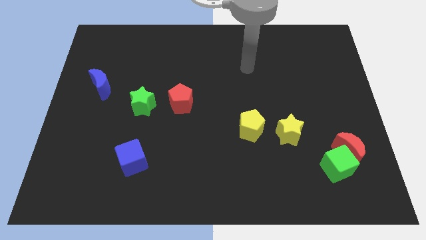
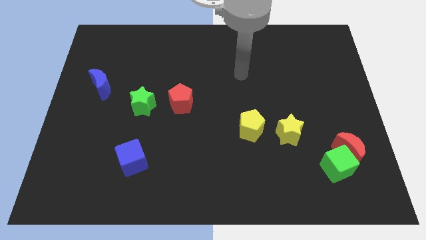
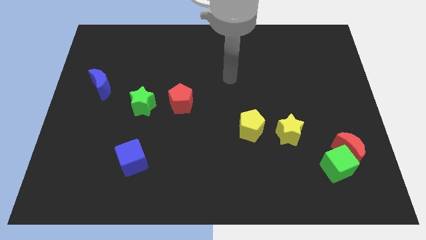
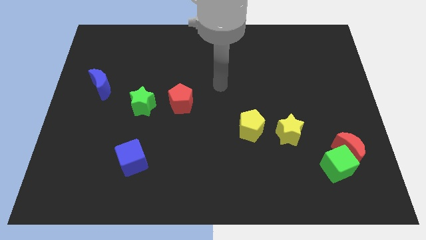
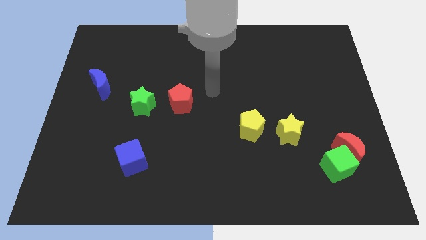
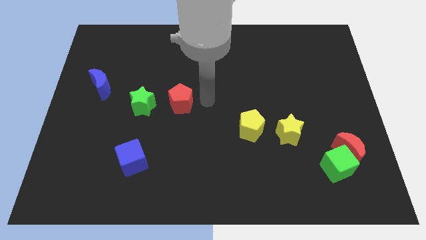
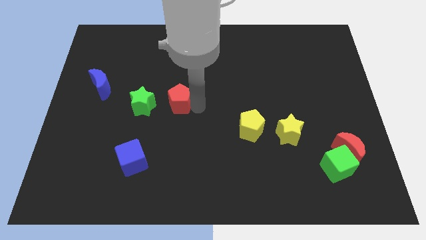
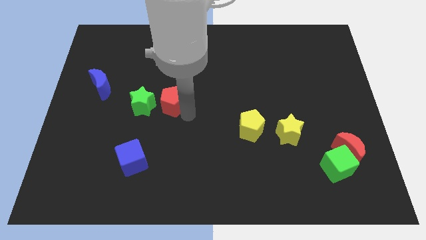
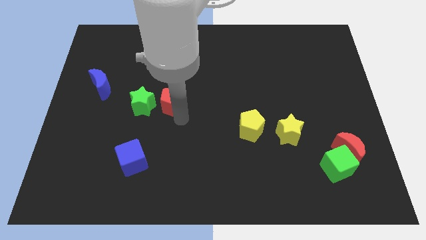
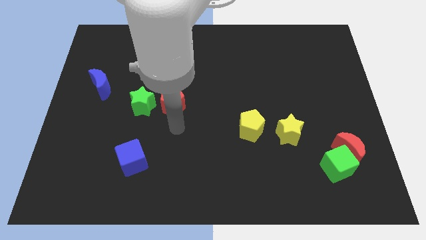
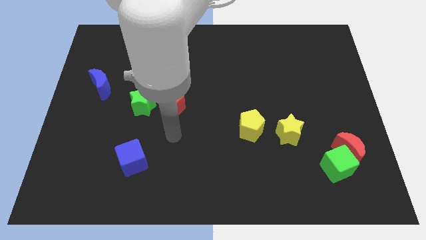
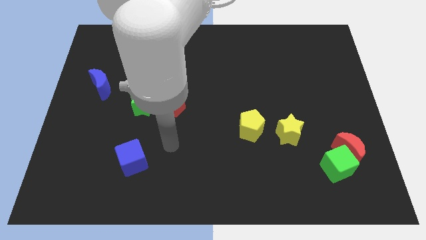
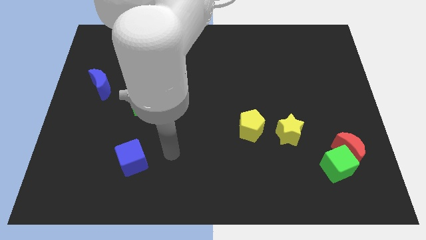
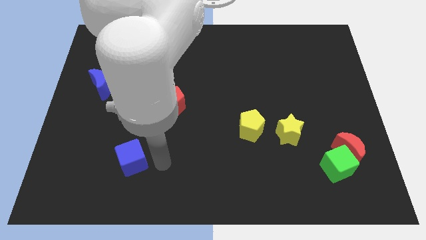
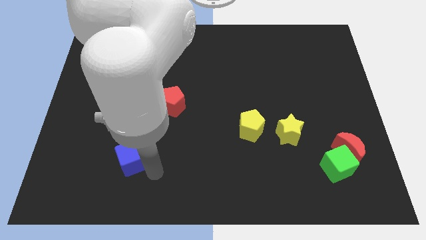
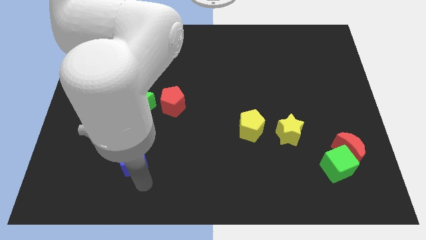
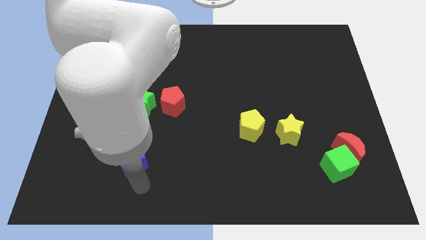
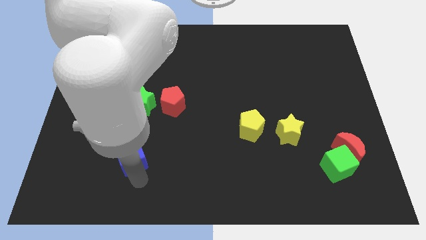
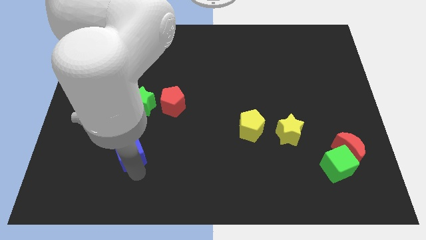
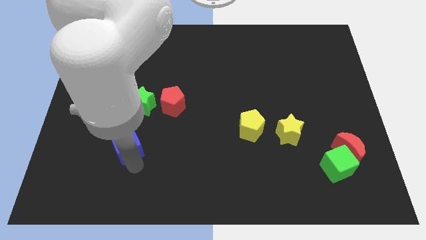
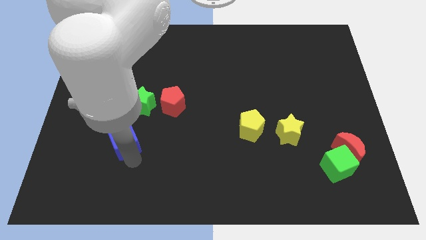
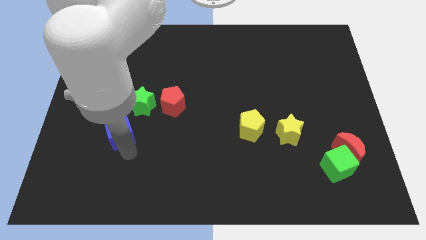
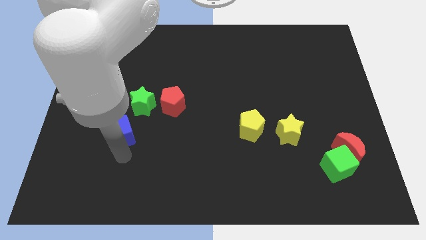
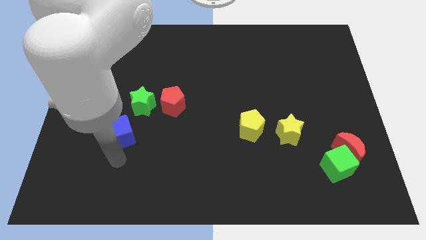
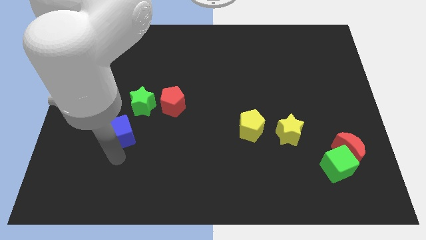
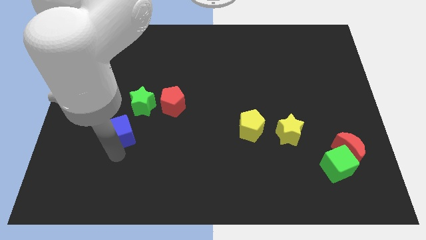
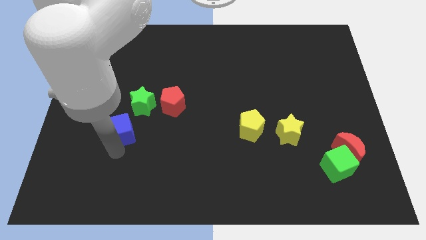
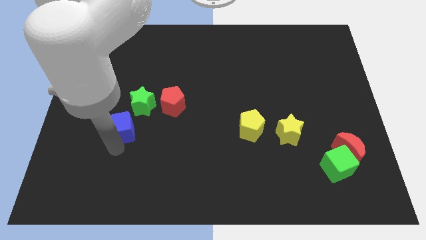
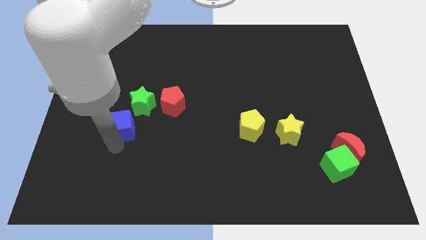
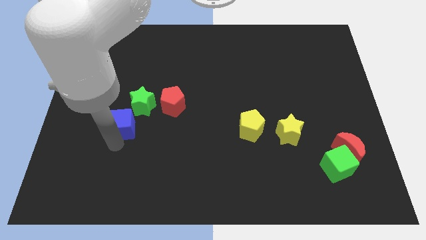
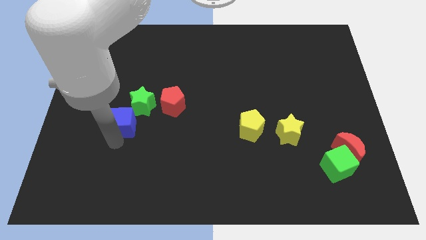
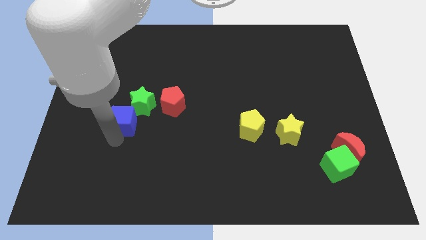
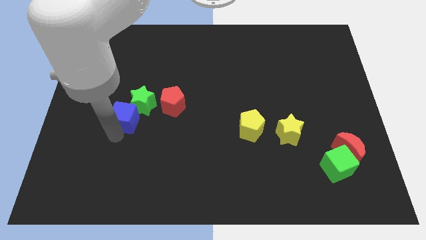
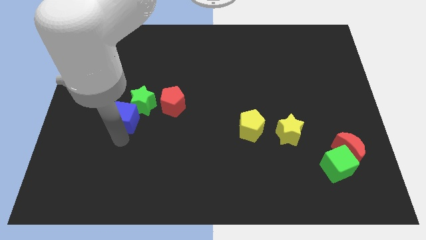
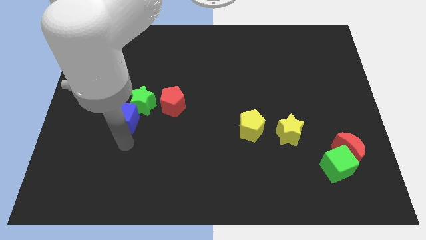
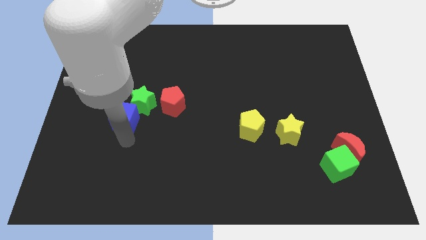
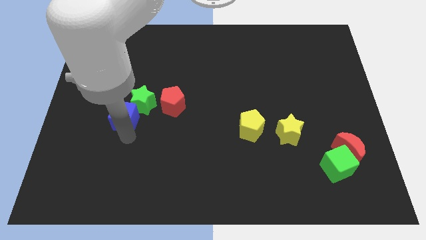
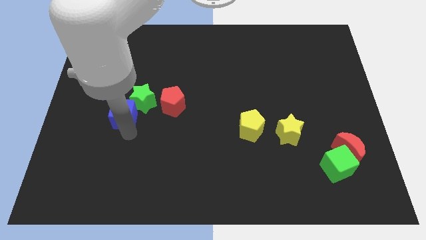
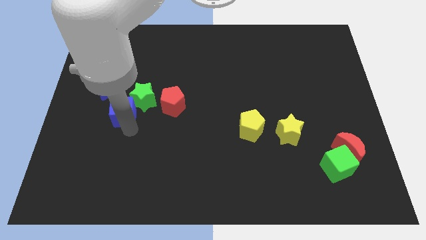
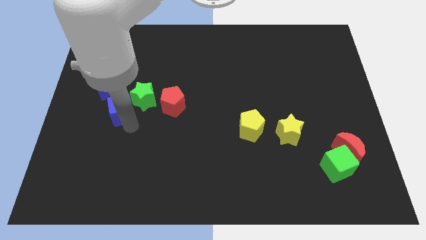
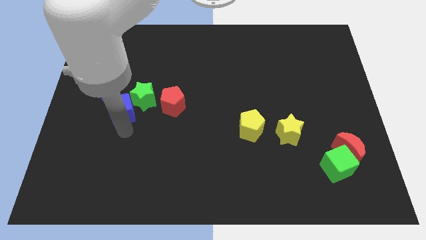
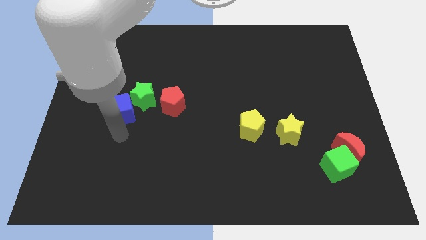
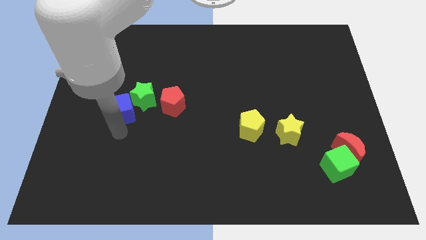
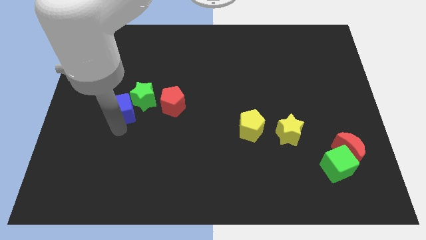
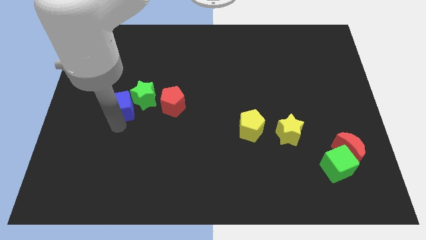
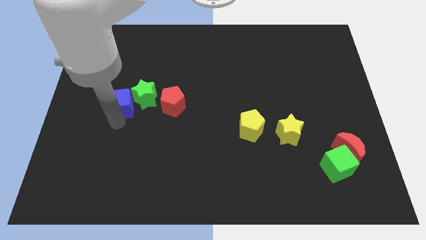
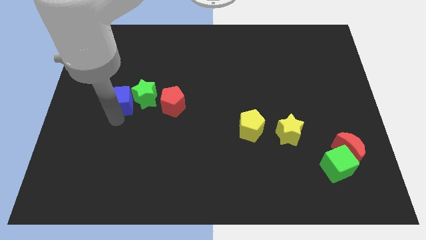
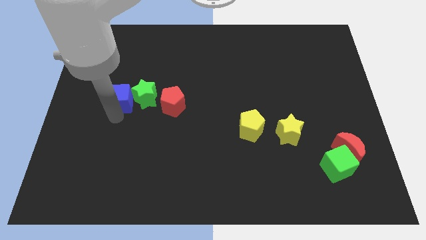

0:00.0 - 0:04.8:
move the blue cube to the top left of the green star

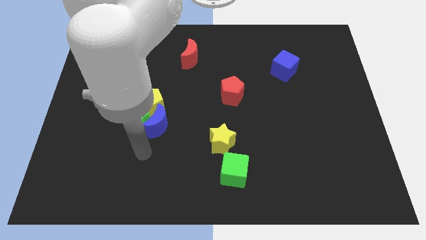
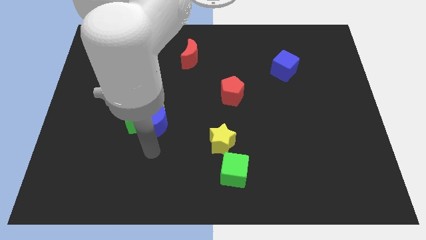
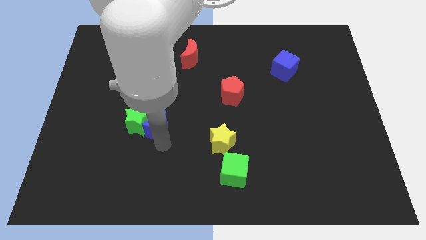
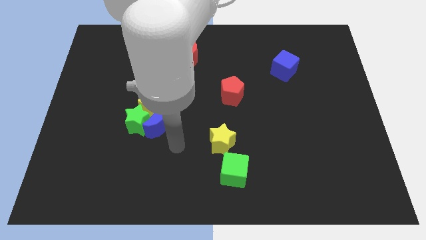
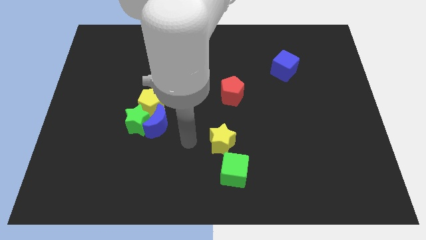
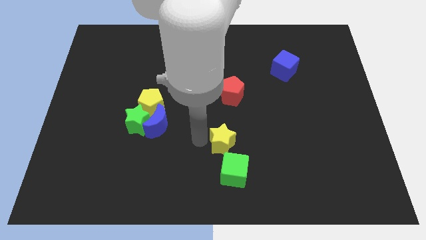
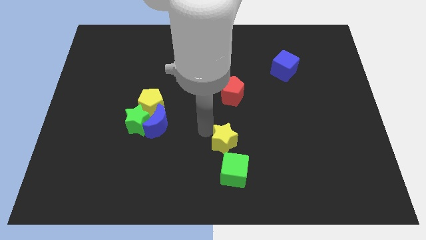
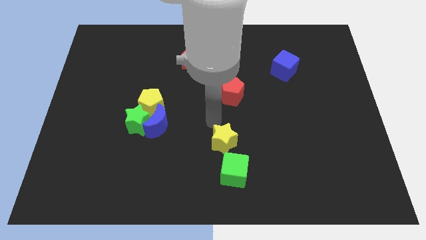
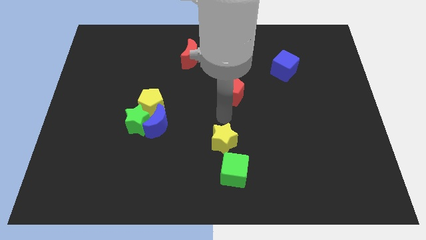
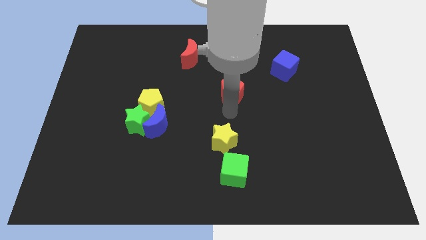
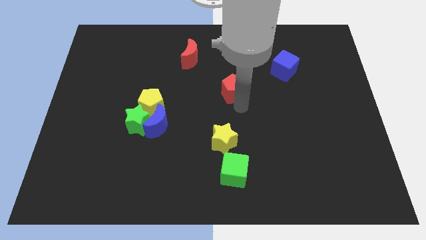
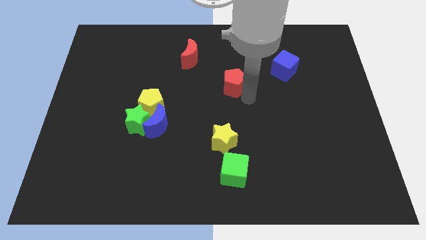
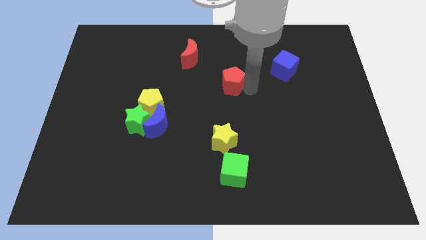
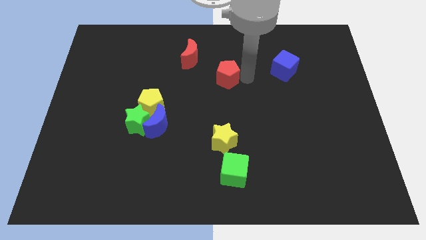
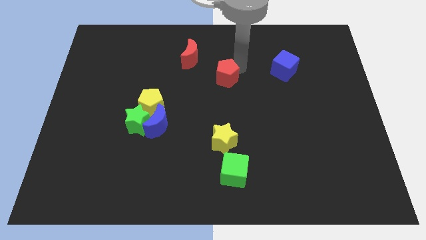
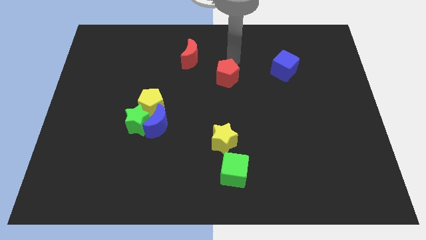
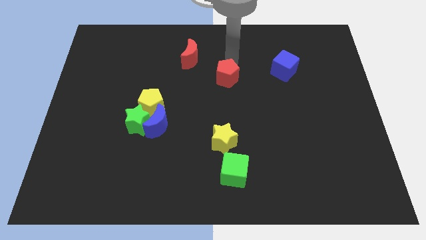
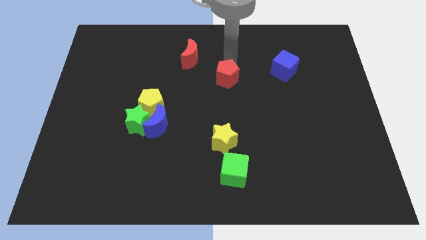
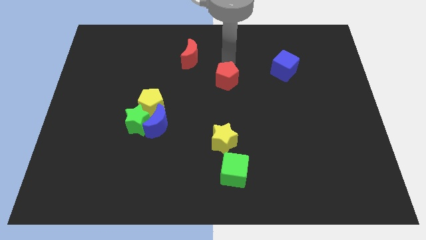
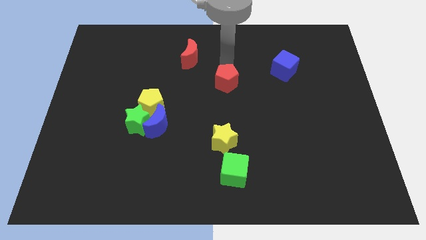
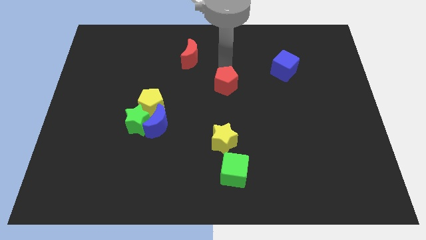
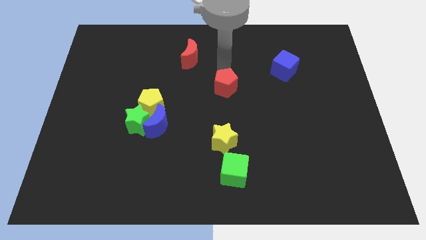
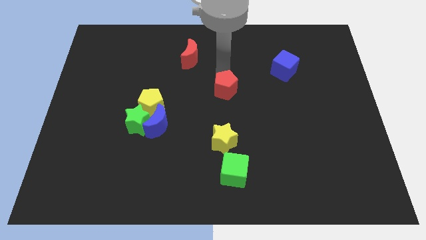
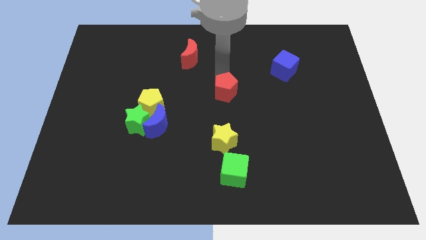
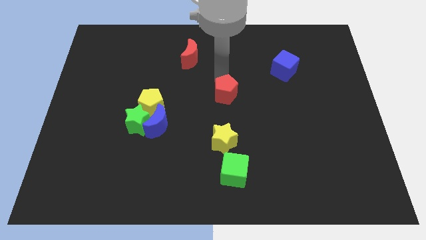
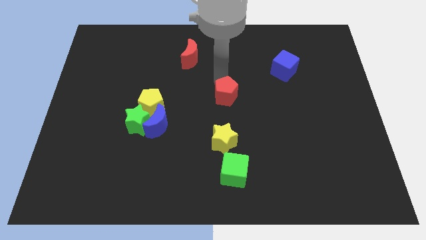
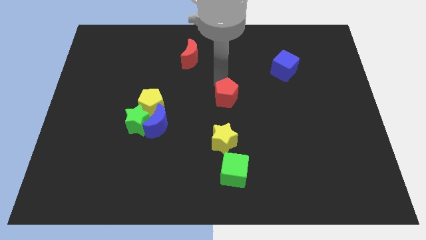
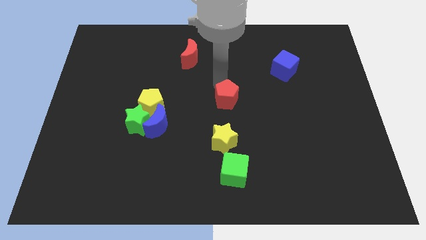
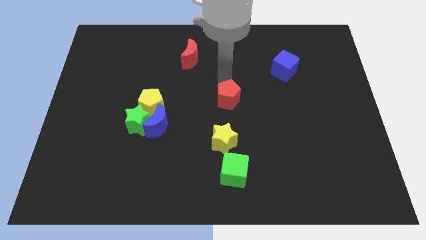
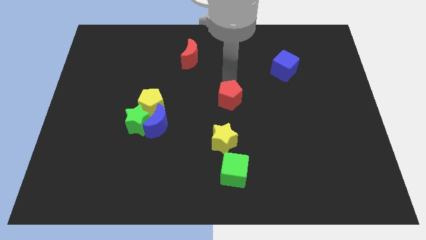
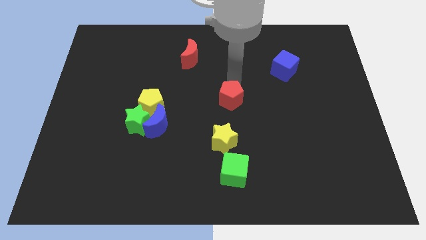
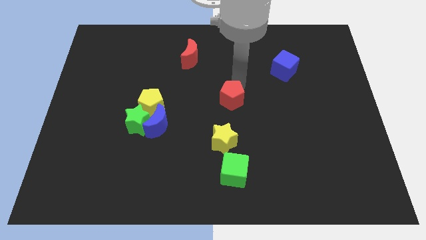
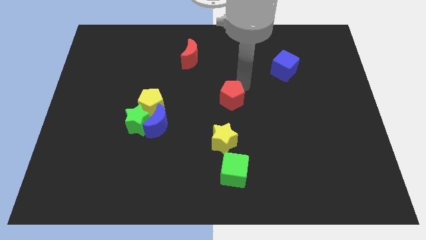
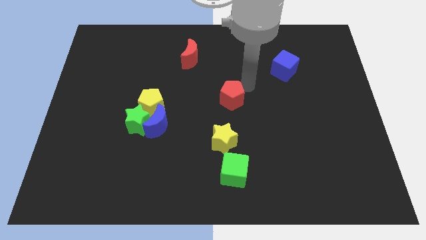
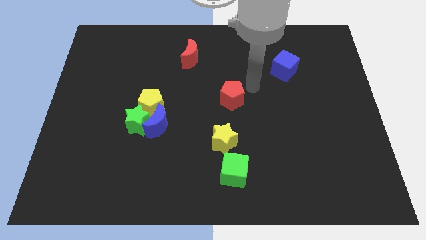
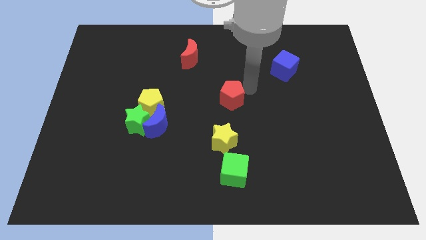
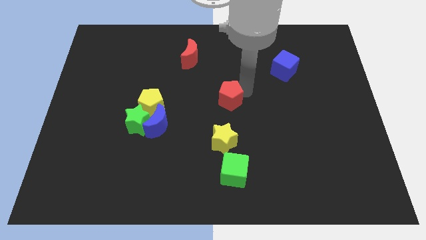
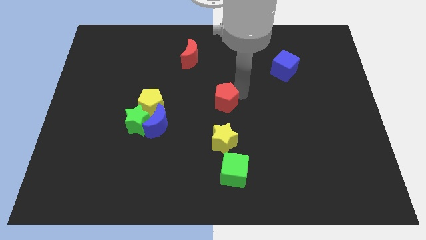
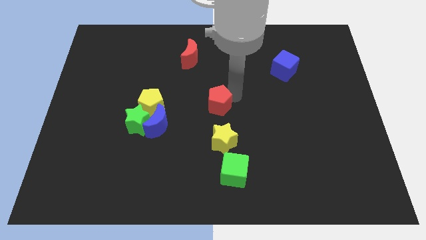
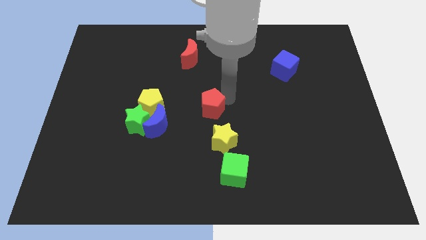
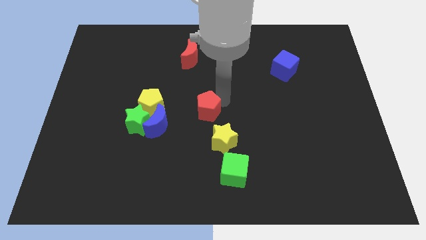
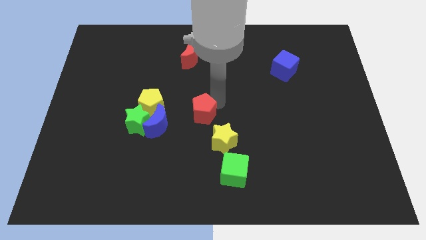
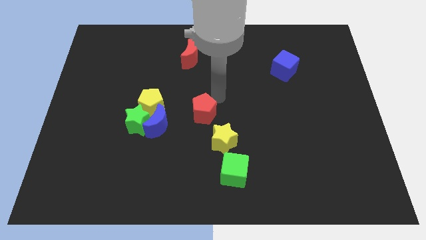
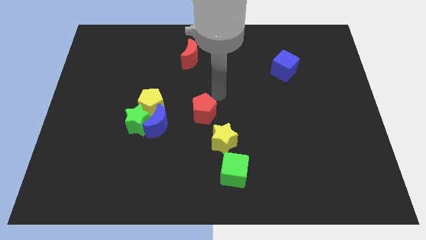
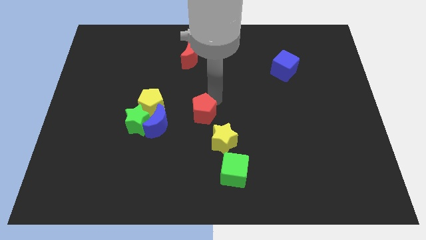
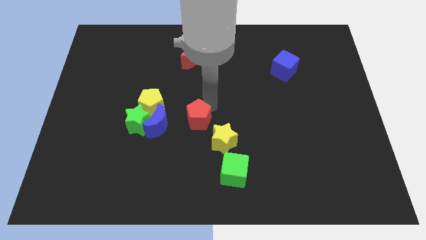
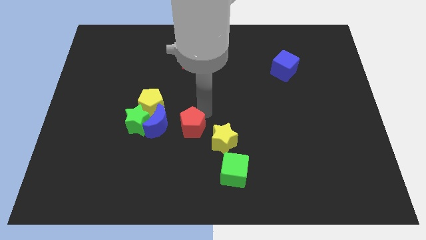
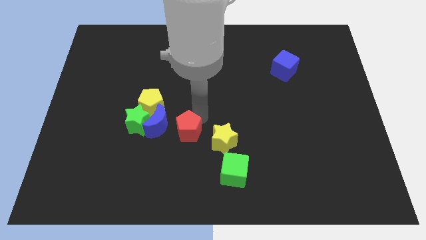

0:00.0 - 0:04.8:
move the red pentagon to the bottom right side of the blue moon
